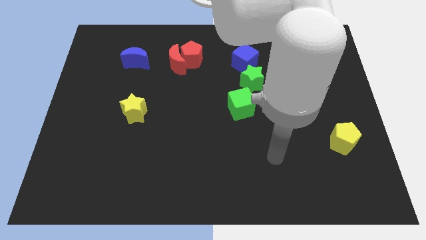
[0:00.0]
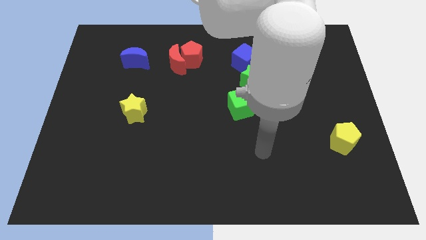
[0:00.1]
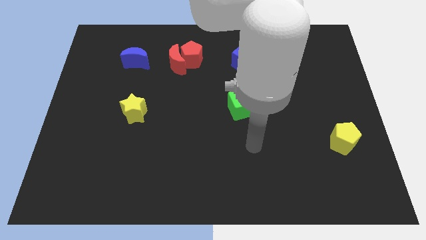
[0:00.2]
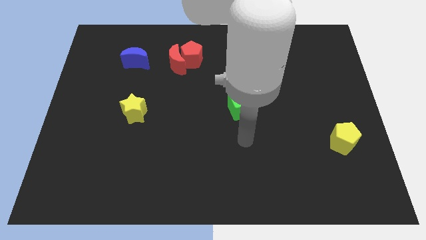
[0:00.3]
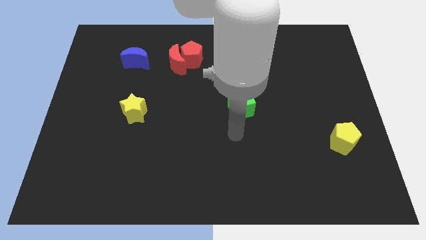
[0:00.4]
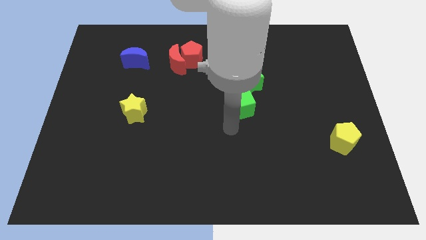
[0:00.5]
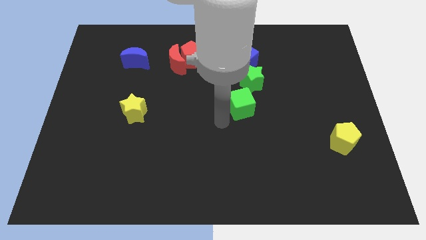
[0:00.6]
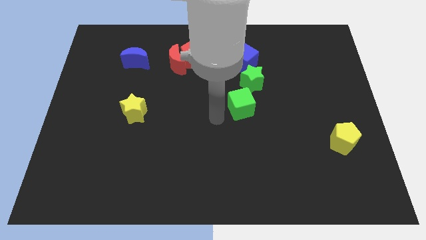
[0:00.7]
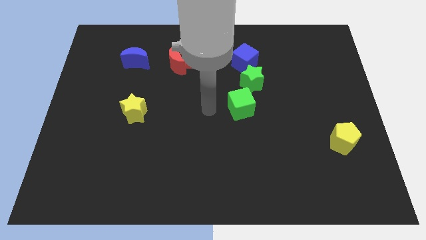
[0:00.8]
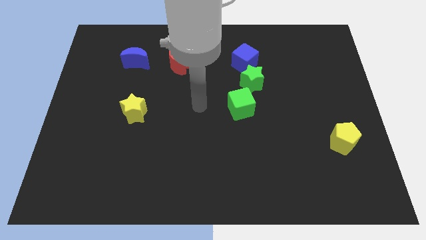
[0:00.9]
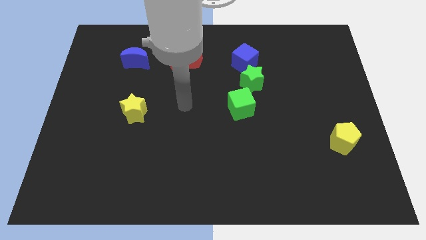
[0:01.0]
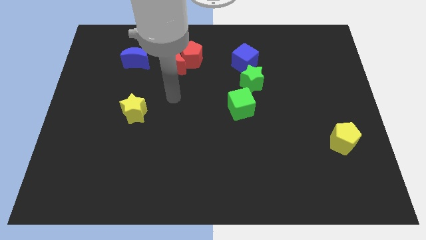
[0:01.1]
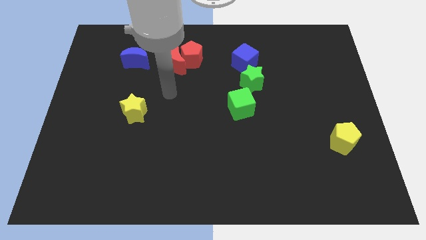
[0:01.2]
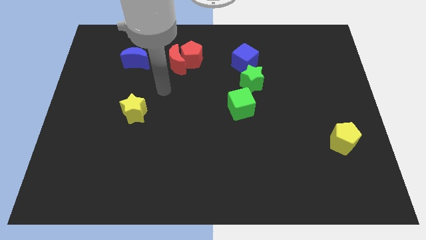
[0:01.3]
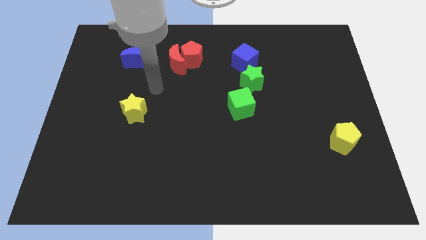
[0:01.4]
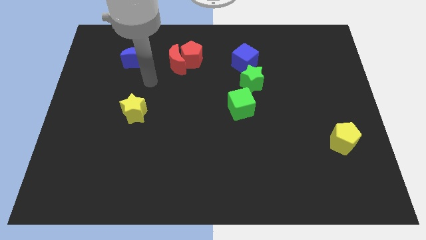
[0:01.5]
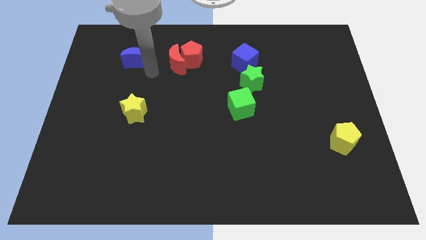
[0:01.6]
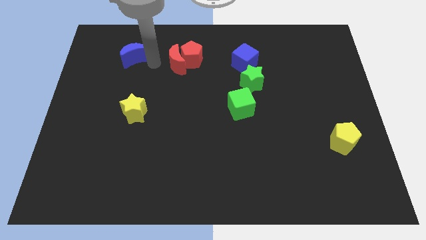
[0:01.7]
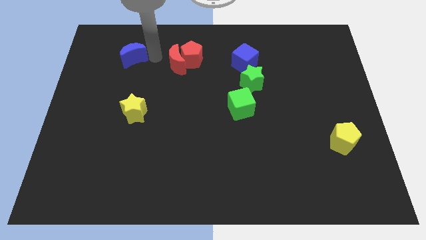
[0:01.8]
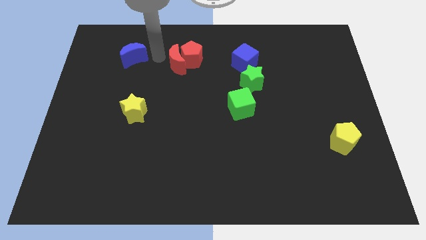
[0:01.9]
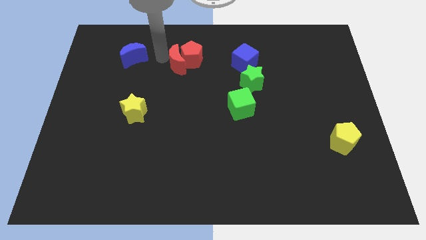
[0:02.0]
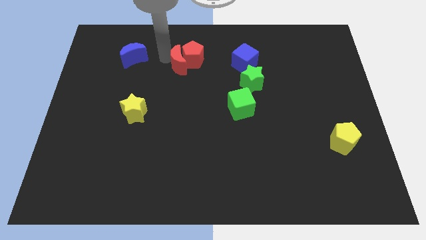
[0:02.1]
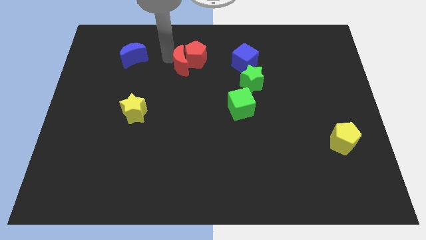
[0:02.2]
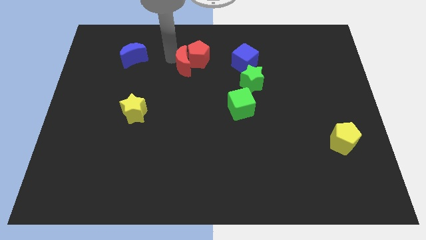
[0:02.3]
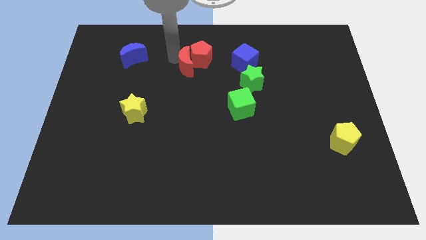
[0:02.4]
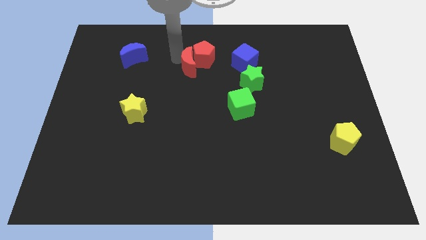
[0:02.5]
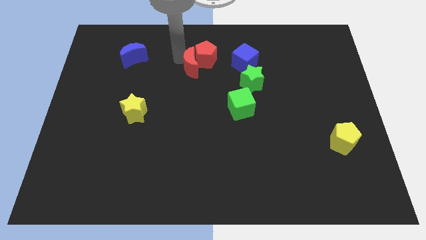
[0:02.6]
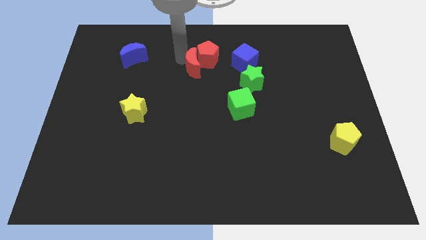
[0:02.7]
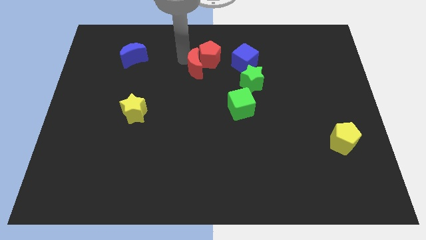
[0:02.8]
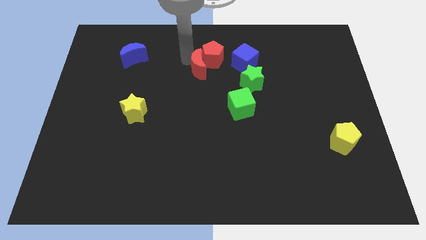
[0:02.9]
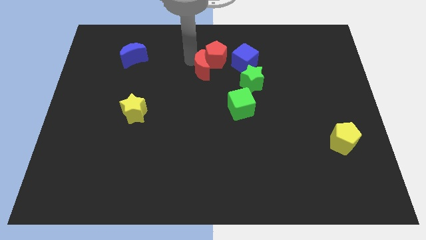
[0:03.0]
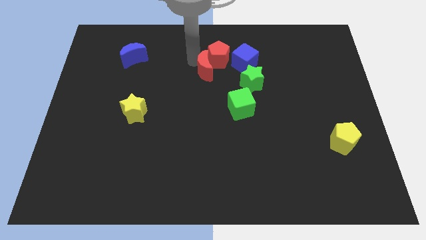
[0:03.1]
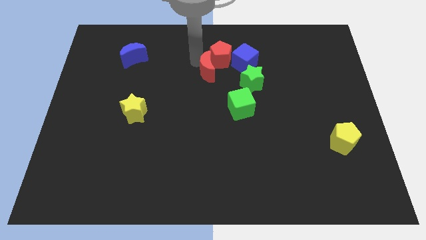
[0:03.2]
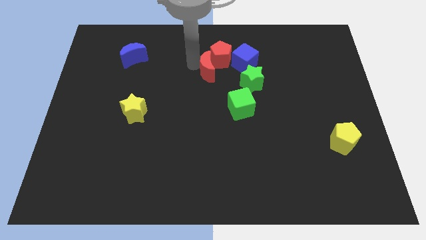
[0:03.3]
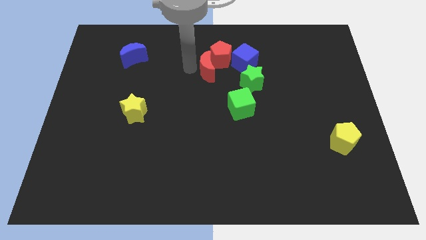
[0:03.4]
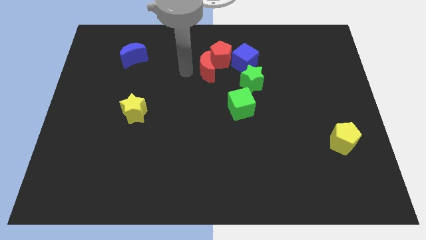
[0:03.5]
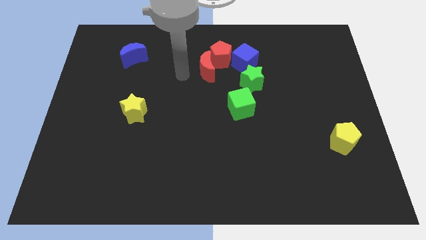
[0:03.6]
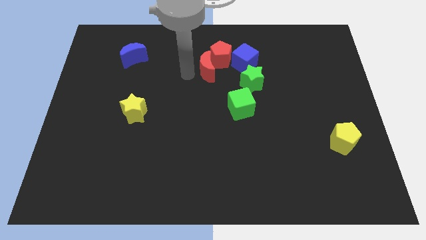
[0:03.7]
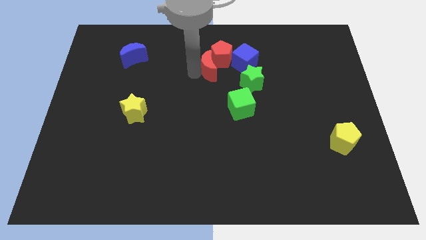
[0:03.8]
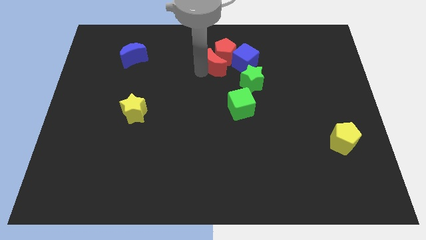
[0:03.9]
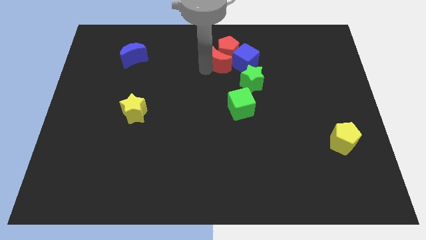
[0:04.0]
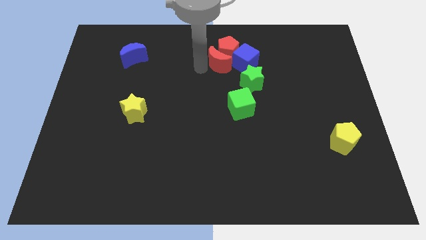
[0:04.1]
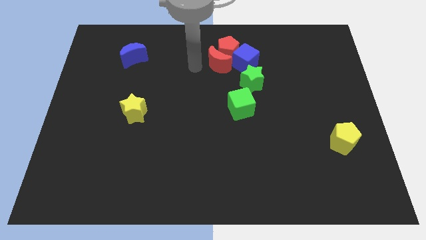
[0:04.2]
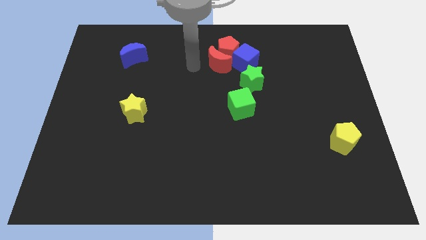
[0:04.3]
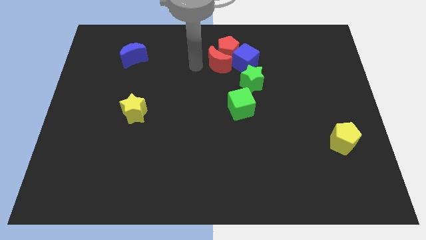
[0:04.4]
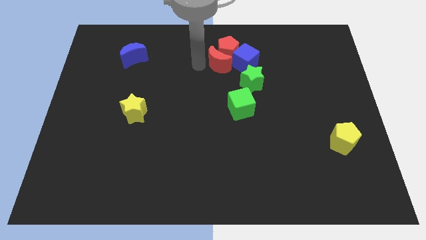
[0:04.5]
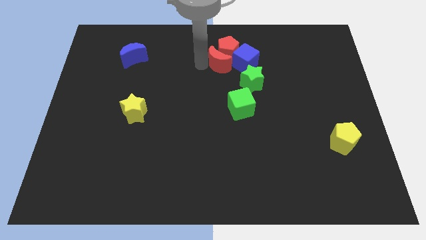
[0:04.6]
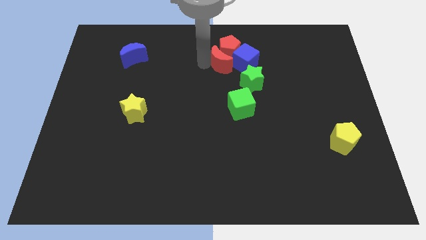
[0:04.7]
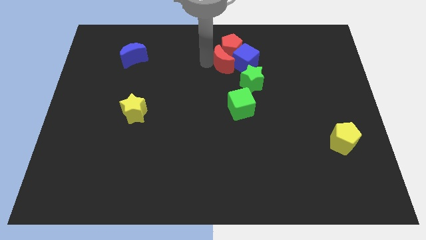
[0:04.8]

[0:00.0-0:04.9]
move the red moon next to the blue cube

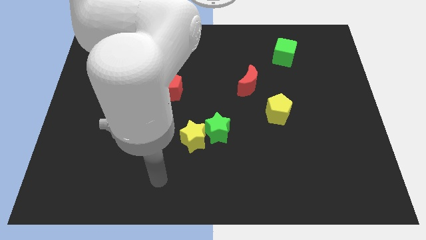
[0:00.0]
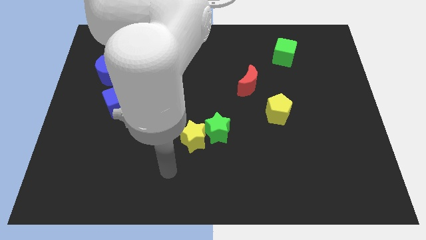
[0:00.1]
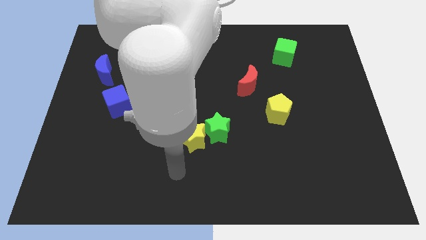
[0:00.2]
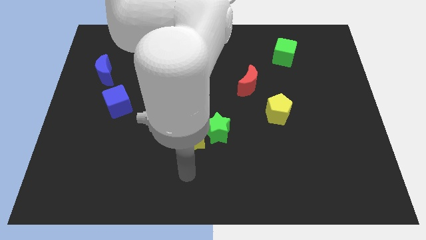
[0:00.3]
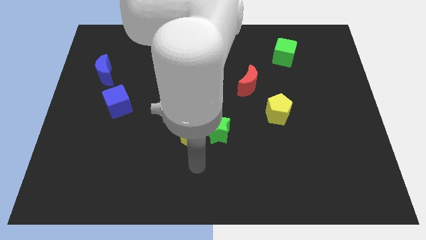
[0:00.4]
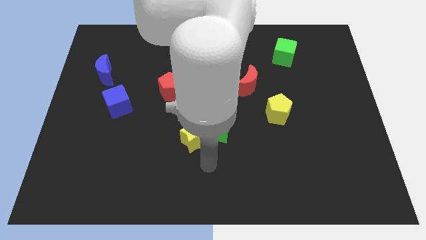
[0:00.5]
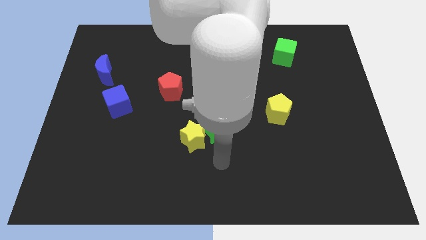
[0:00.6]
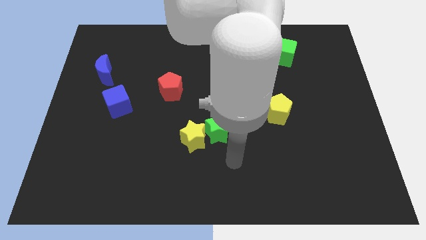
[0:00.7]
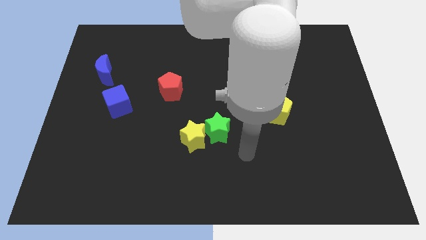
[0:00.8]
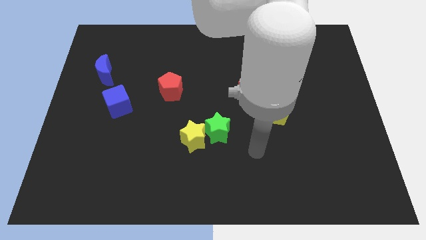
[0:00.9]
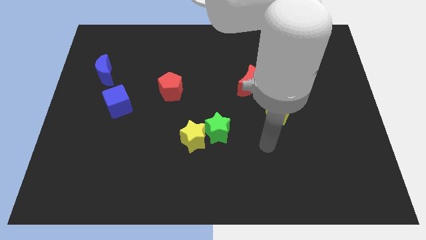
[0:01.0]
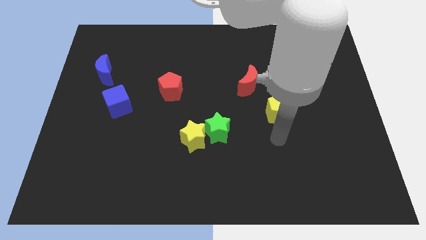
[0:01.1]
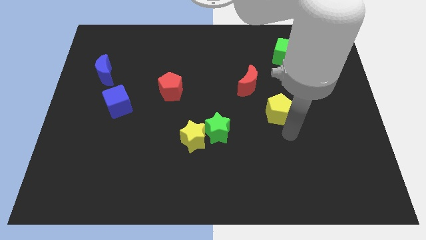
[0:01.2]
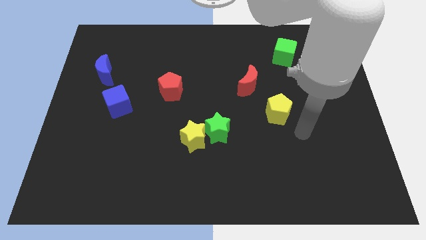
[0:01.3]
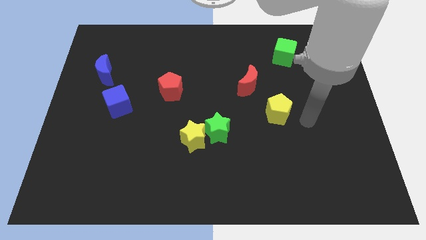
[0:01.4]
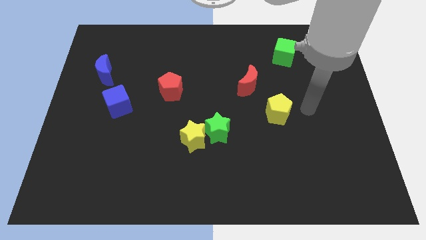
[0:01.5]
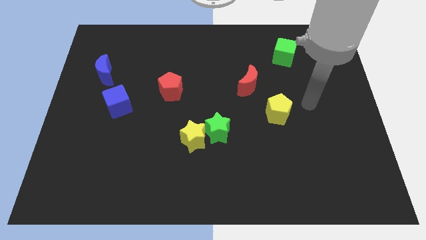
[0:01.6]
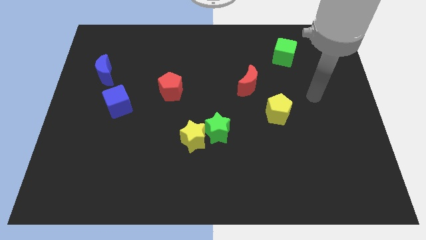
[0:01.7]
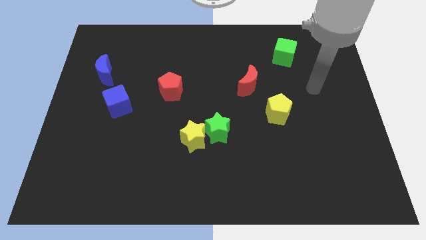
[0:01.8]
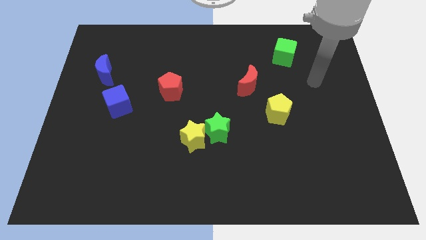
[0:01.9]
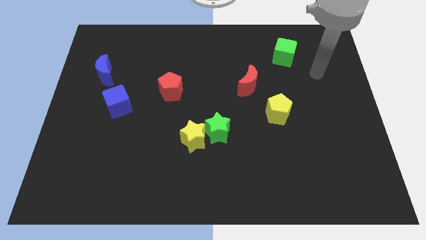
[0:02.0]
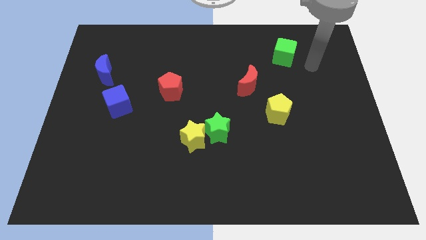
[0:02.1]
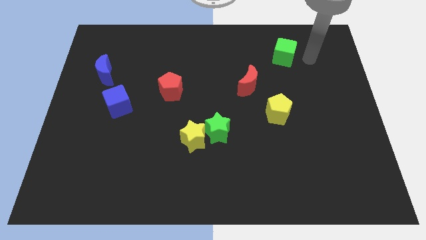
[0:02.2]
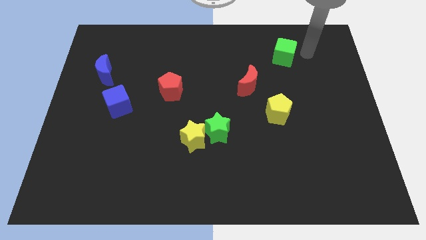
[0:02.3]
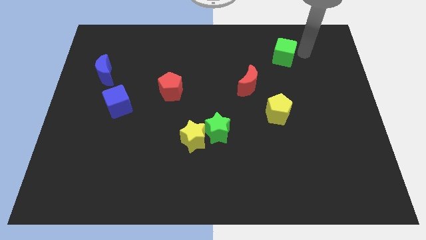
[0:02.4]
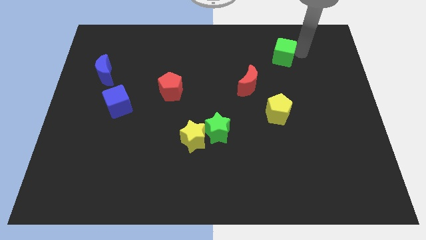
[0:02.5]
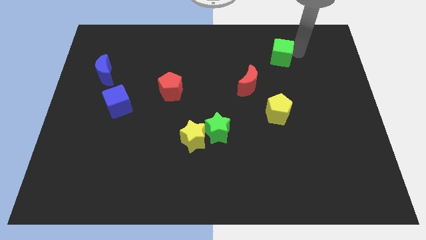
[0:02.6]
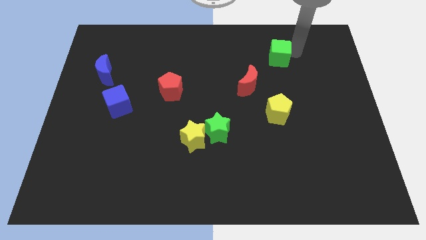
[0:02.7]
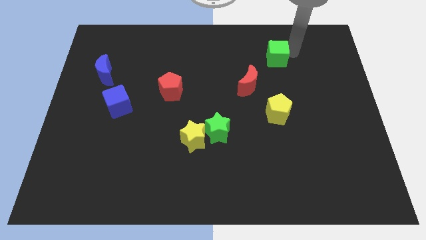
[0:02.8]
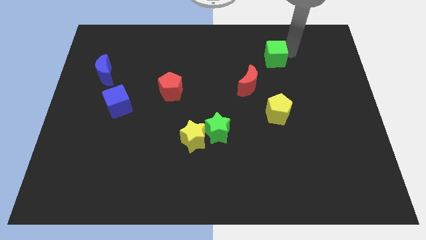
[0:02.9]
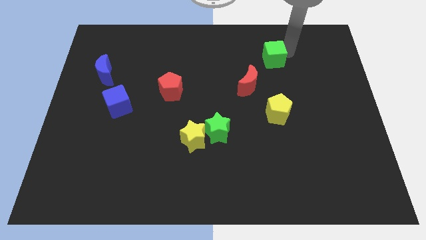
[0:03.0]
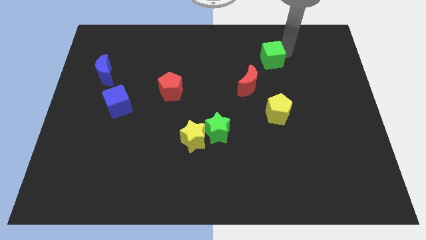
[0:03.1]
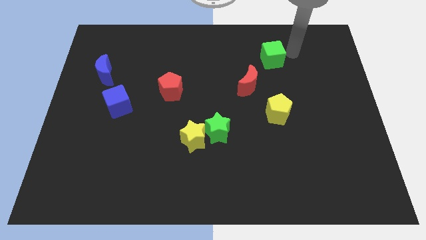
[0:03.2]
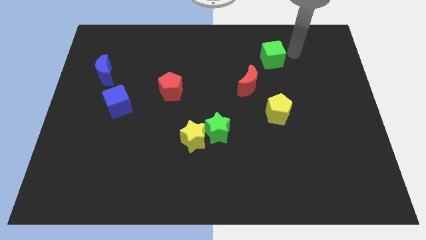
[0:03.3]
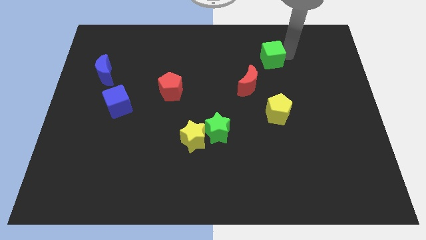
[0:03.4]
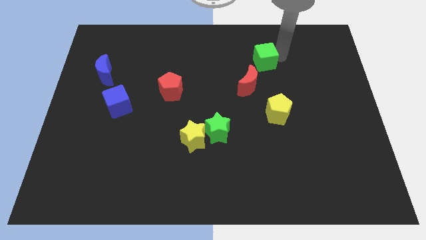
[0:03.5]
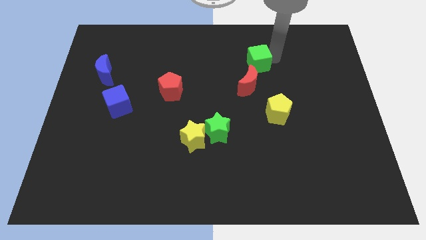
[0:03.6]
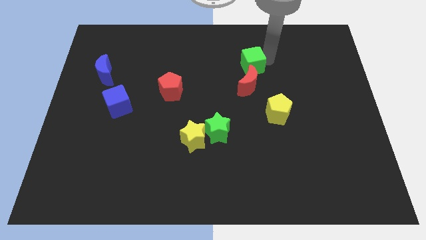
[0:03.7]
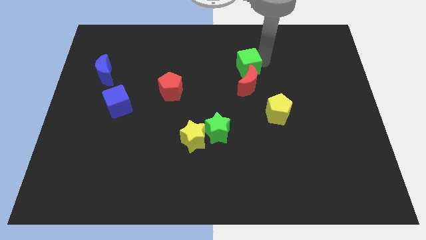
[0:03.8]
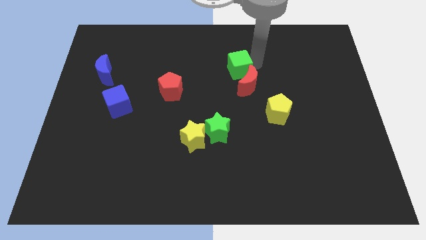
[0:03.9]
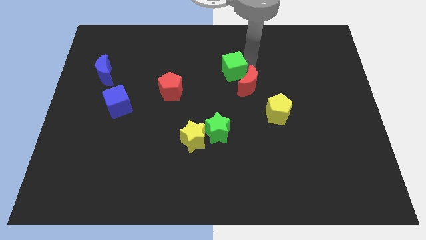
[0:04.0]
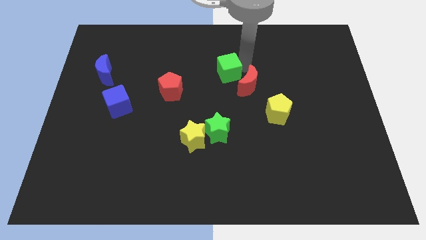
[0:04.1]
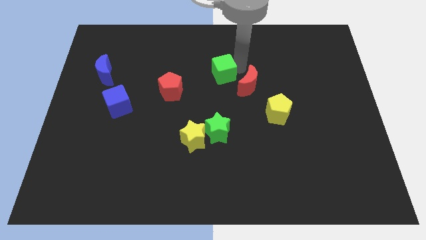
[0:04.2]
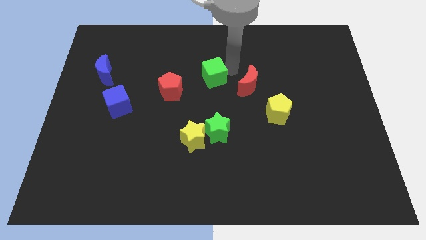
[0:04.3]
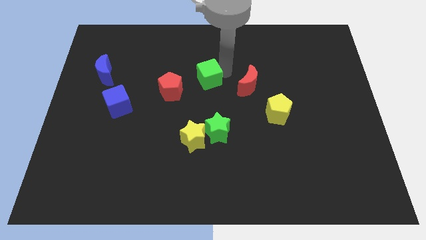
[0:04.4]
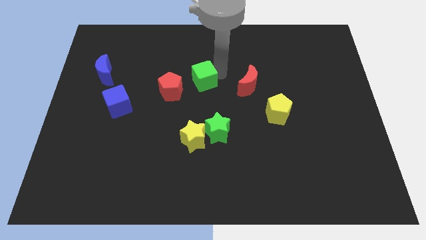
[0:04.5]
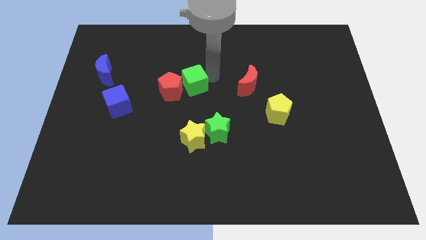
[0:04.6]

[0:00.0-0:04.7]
slide the green cube close to the red pentagon
